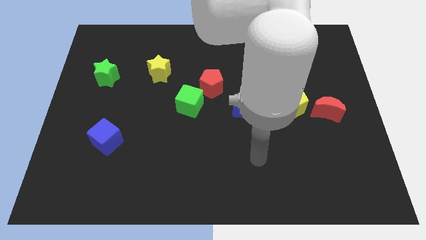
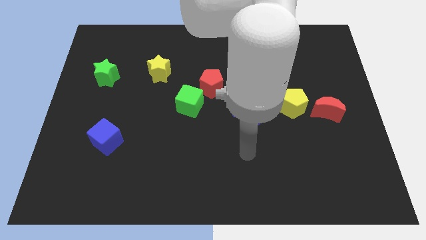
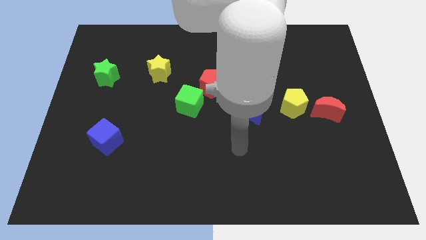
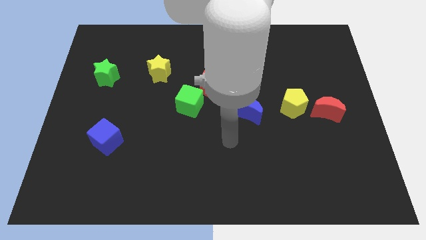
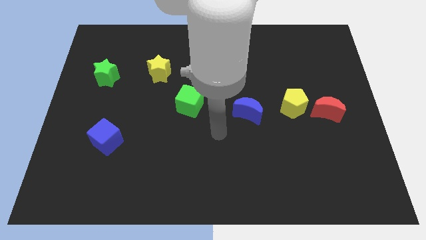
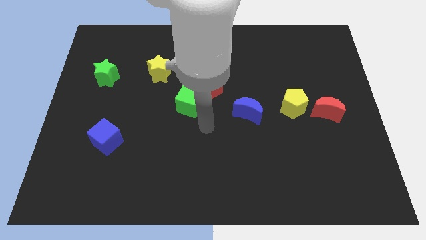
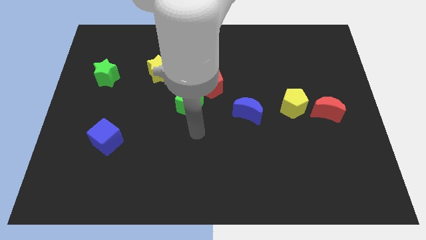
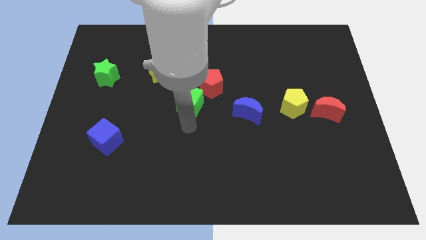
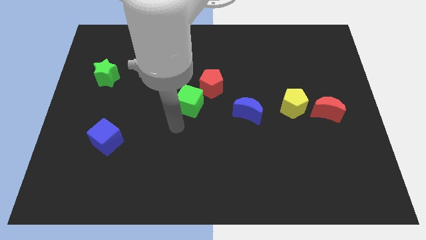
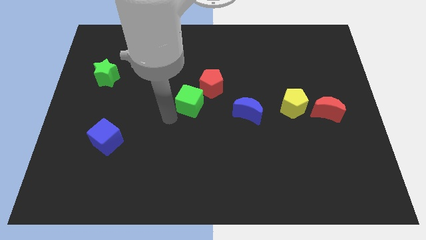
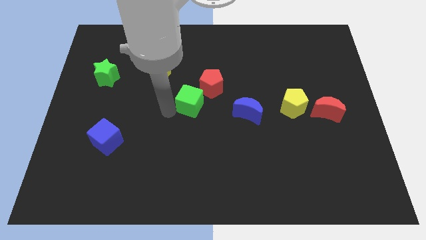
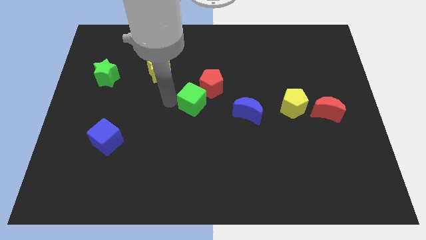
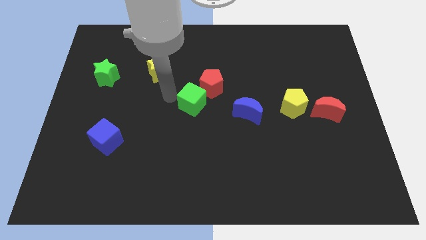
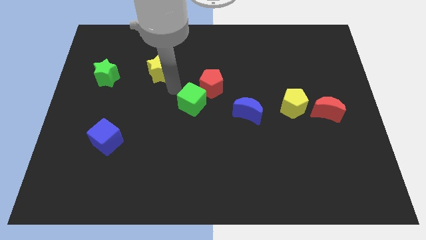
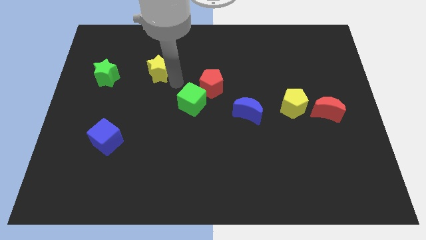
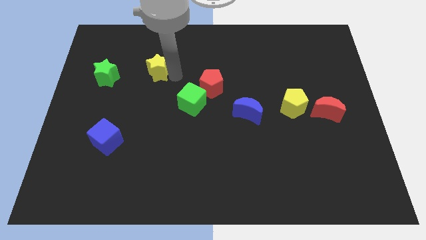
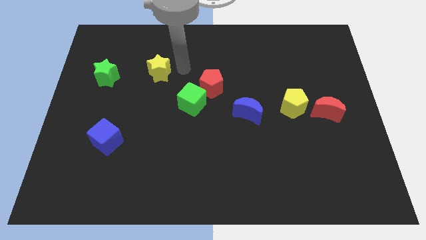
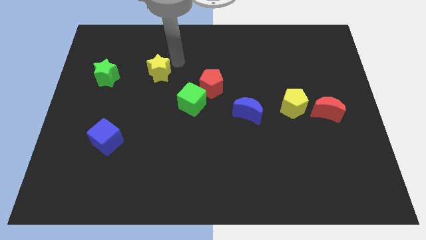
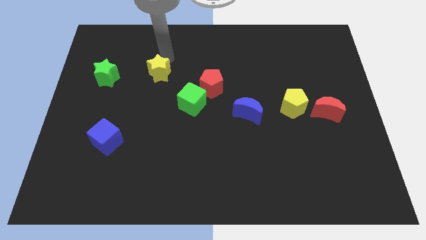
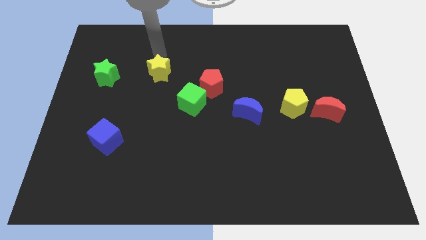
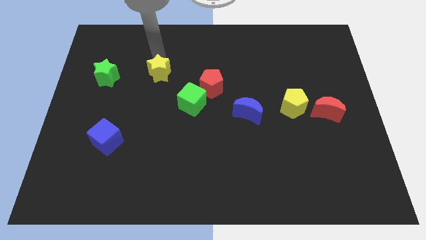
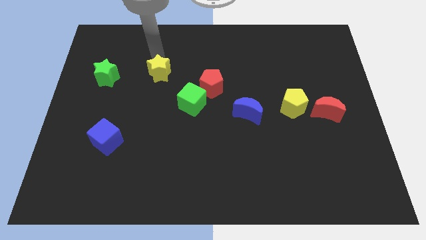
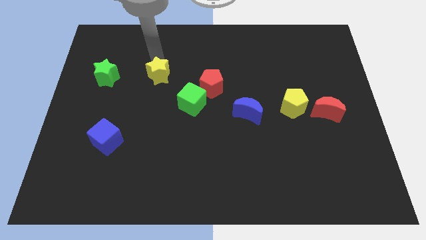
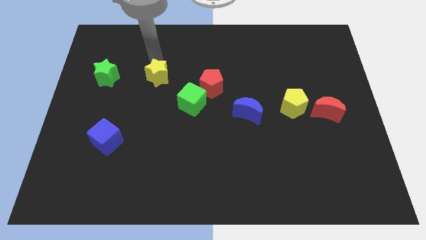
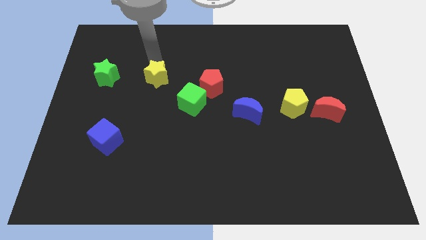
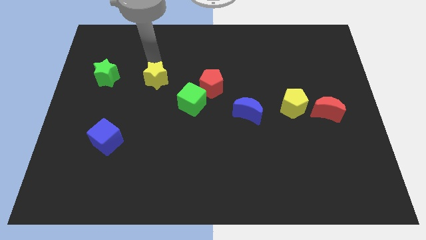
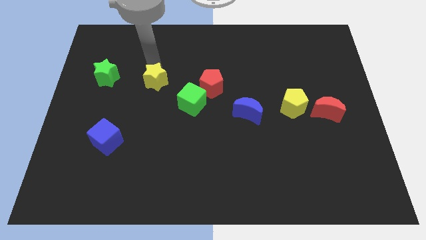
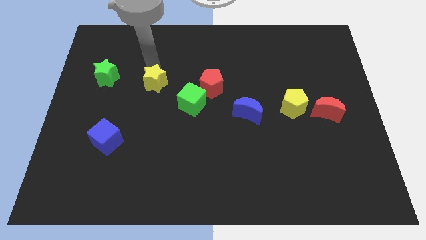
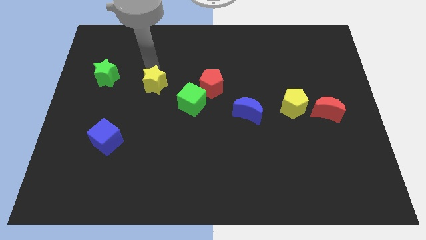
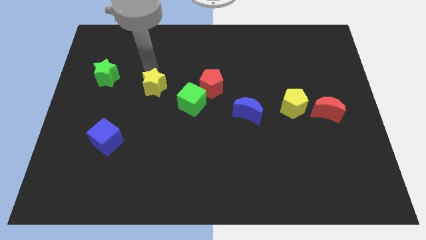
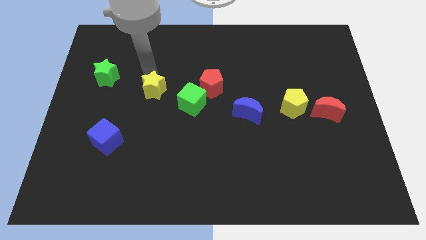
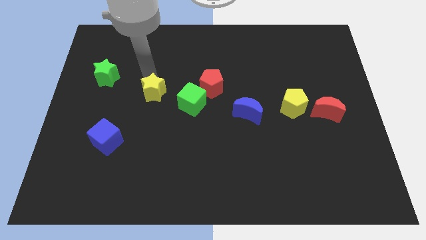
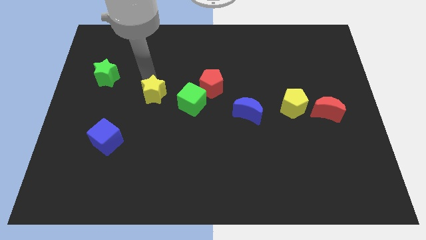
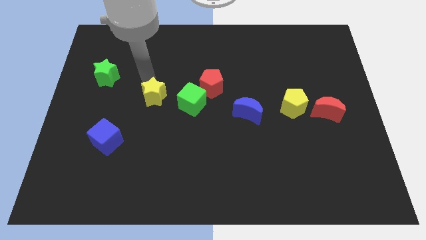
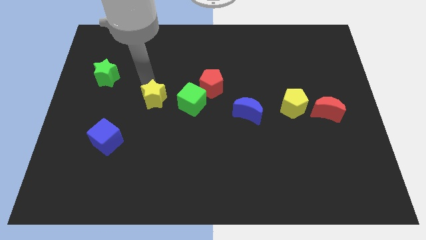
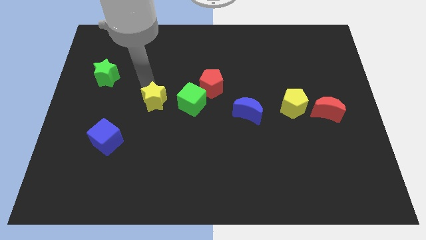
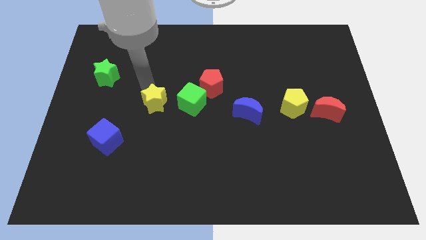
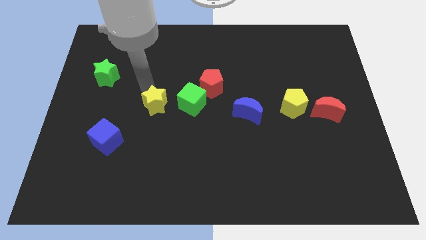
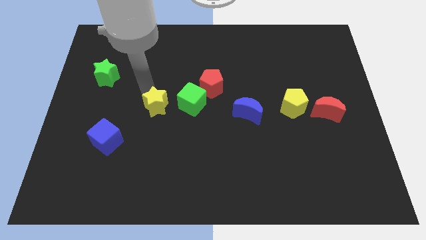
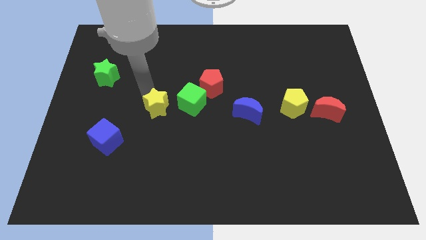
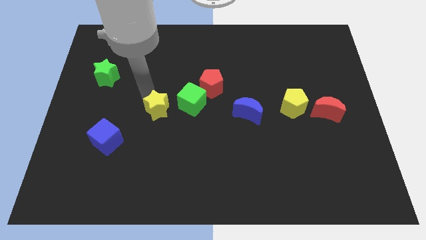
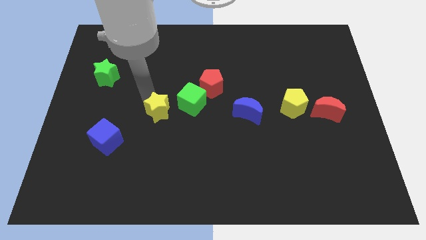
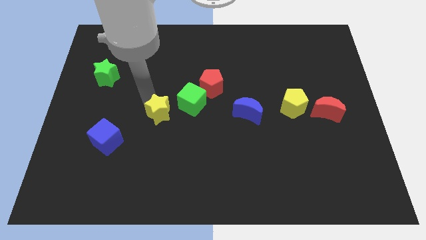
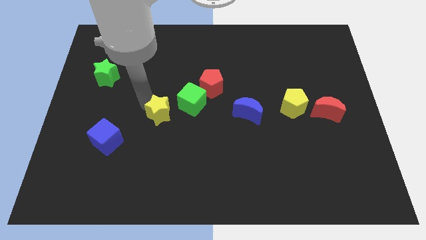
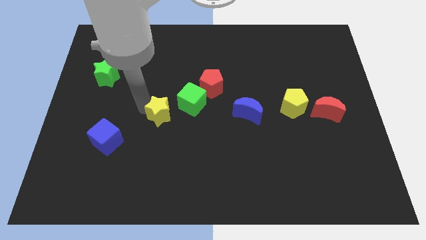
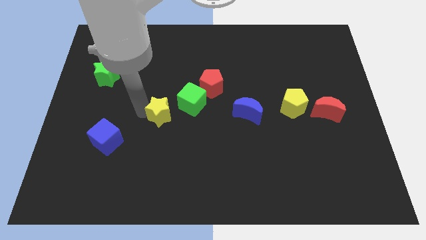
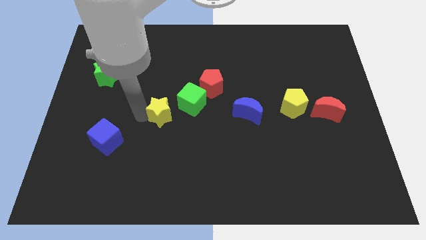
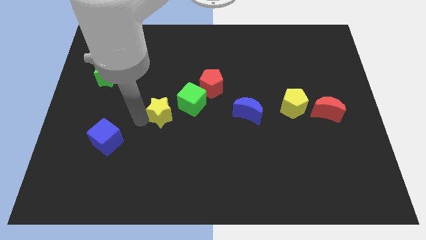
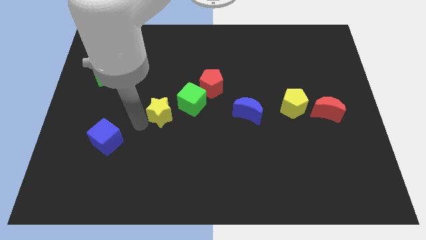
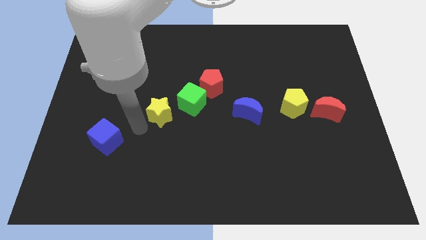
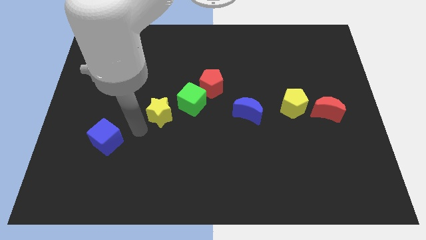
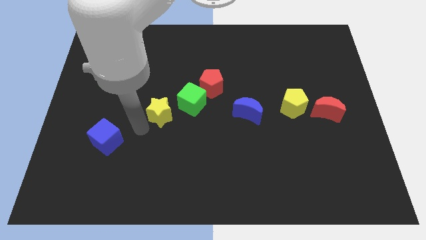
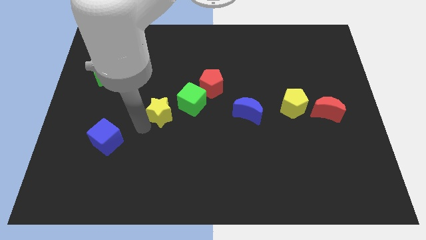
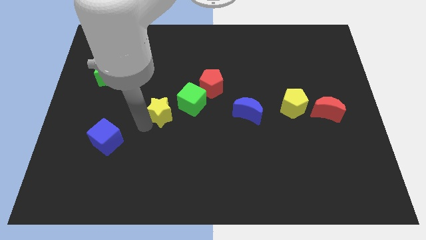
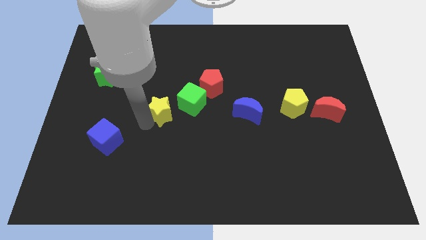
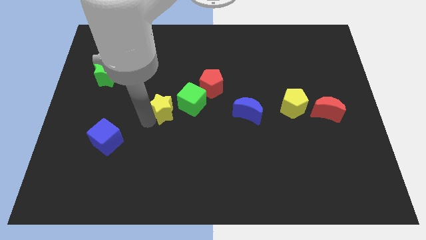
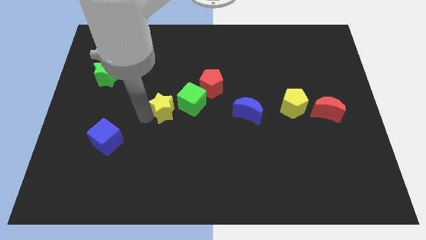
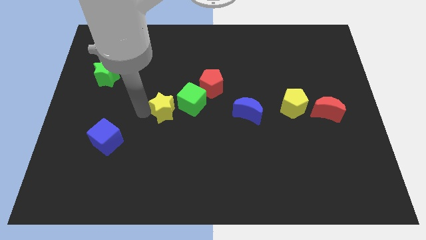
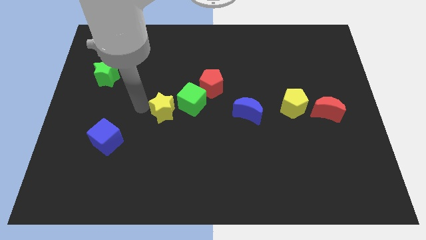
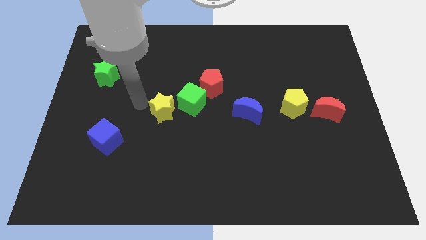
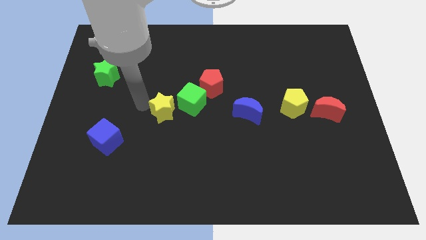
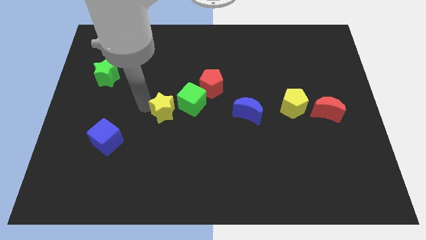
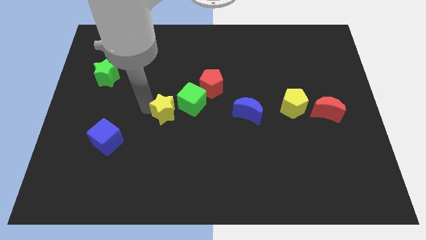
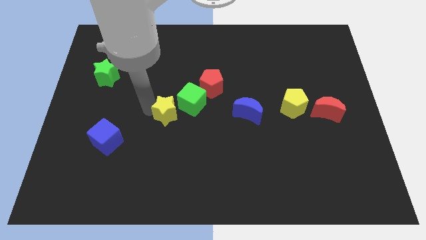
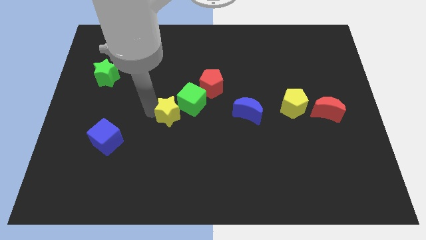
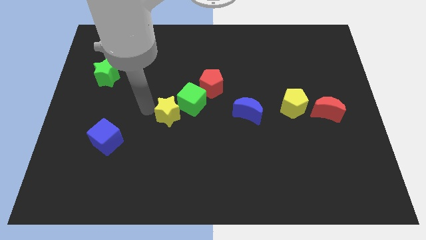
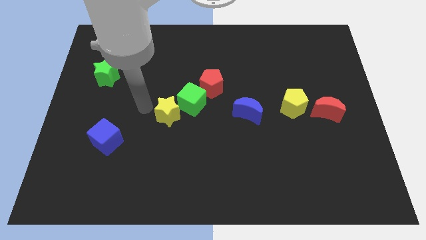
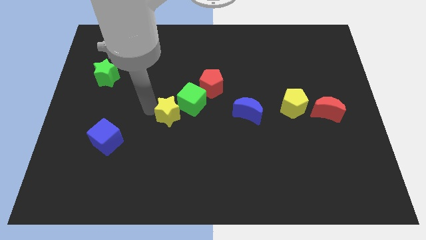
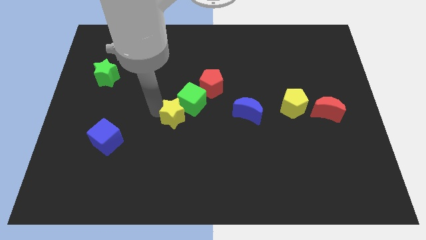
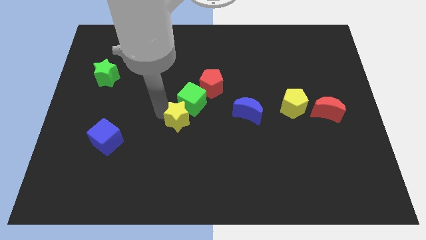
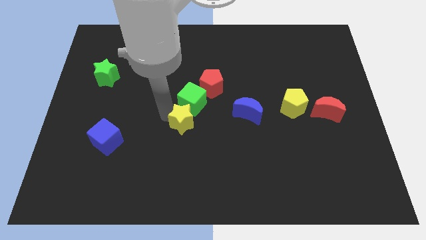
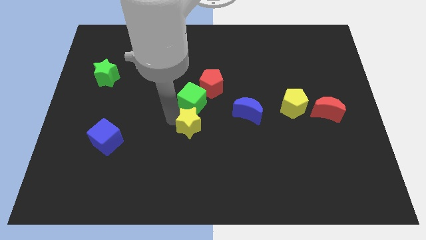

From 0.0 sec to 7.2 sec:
slide the yellow star diagonally down and to the right of the green cube
